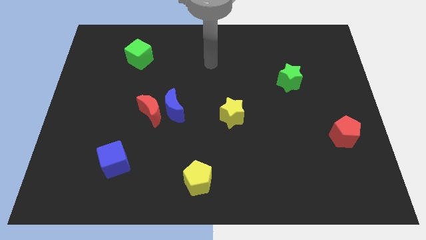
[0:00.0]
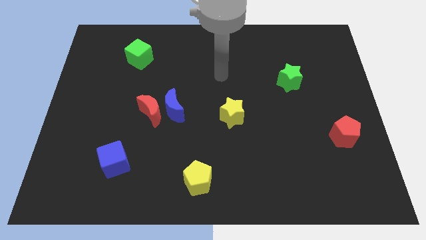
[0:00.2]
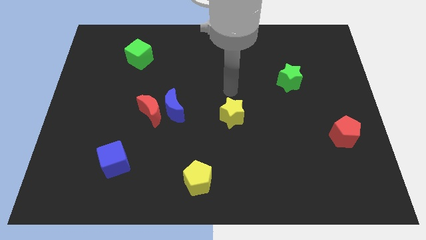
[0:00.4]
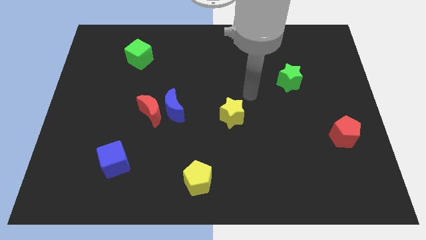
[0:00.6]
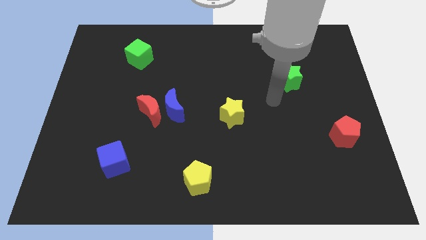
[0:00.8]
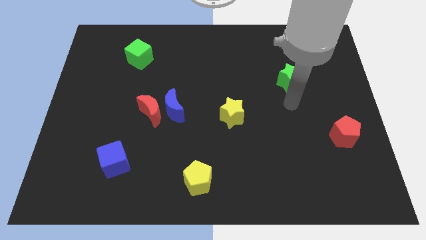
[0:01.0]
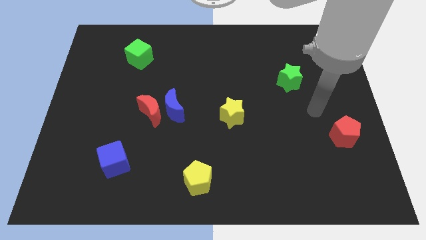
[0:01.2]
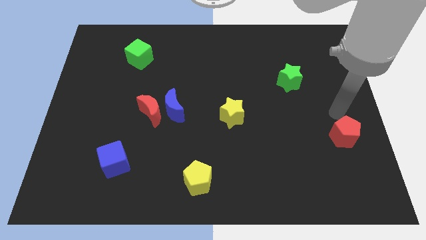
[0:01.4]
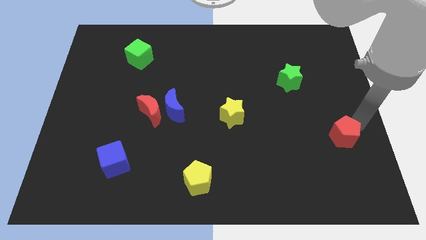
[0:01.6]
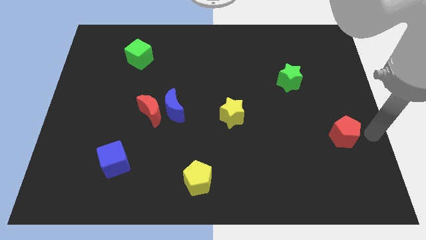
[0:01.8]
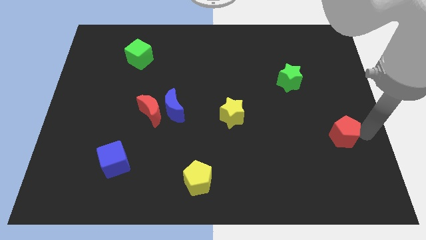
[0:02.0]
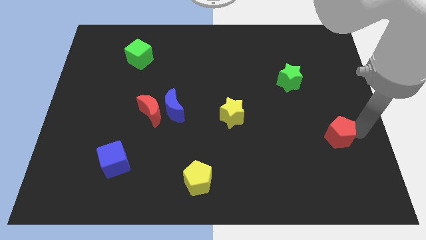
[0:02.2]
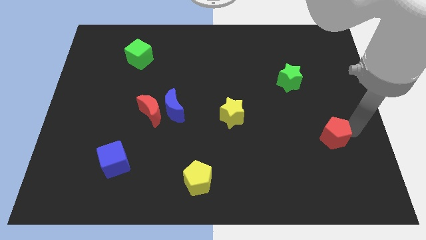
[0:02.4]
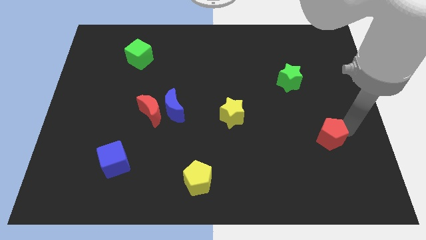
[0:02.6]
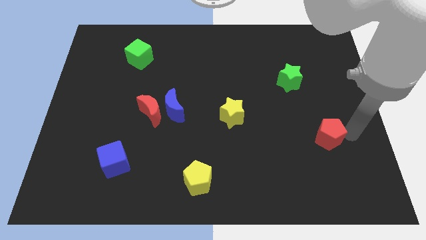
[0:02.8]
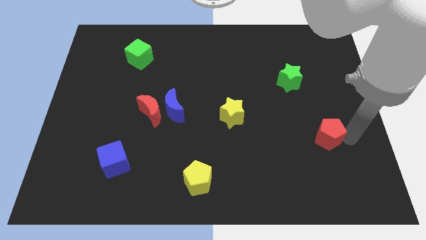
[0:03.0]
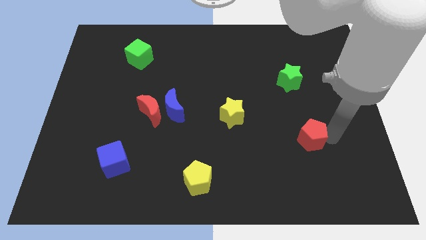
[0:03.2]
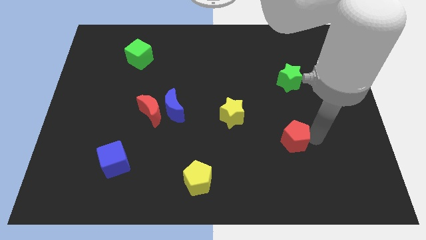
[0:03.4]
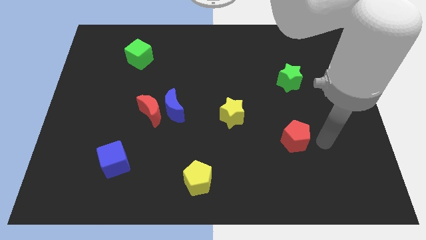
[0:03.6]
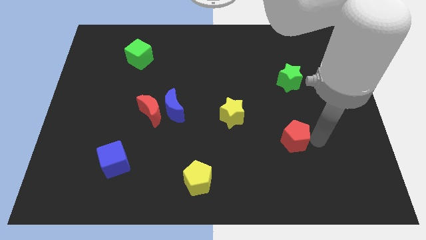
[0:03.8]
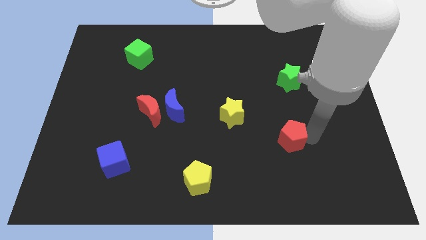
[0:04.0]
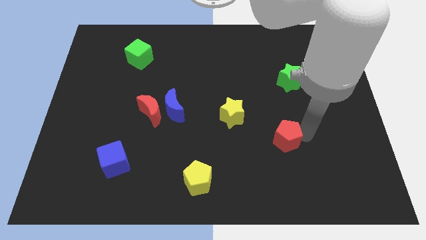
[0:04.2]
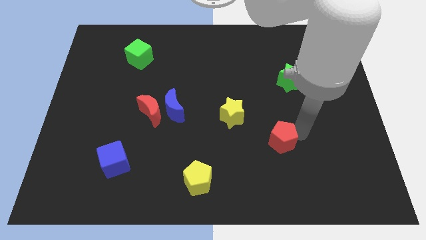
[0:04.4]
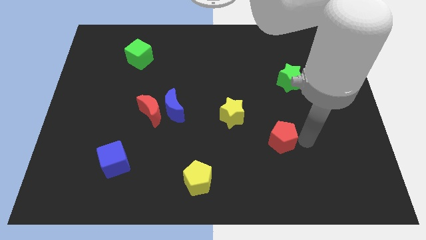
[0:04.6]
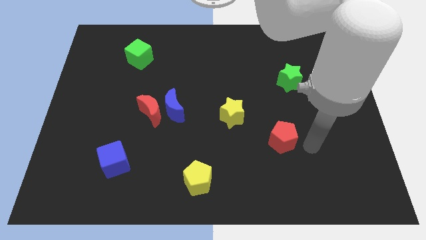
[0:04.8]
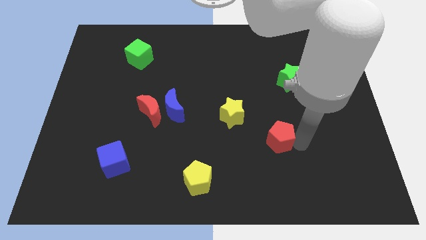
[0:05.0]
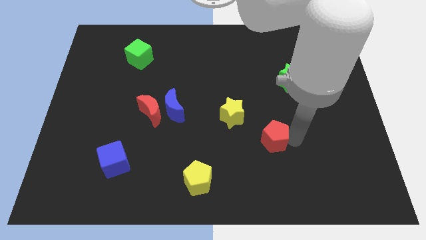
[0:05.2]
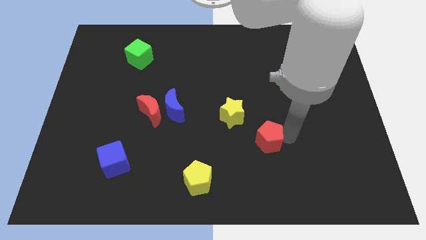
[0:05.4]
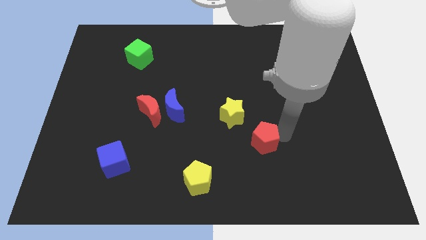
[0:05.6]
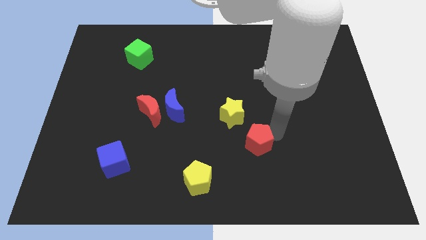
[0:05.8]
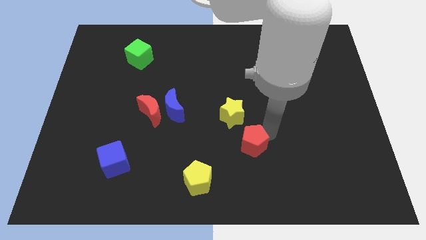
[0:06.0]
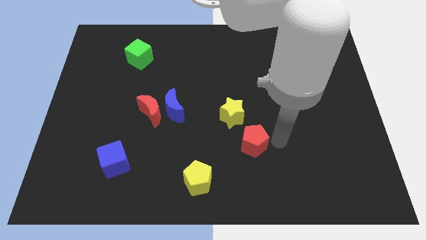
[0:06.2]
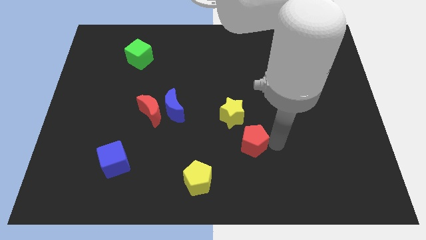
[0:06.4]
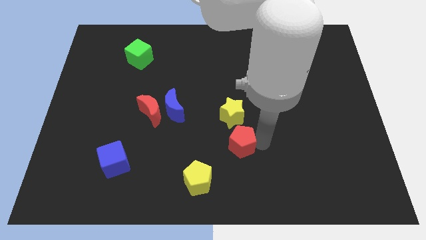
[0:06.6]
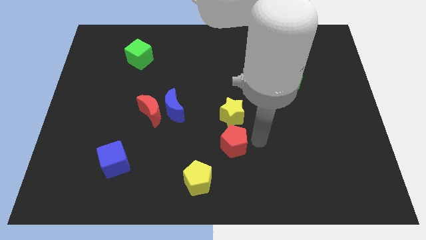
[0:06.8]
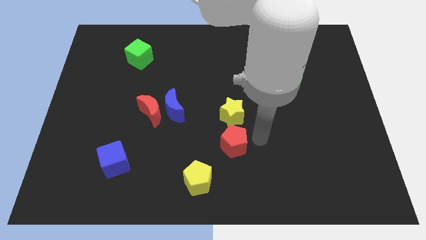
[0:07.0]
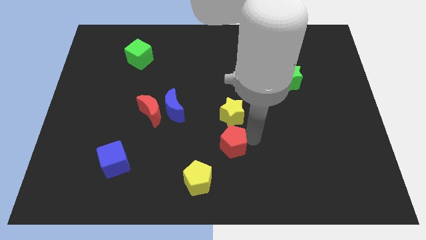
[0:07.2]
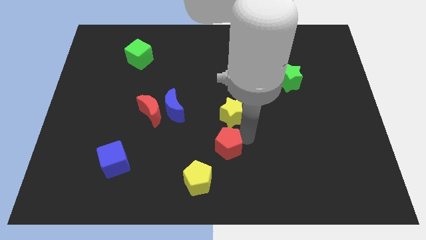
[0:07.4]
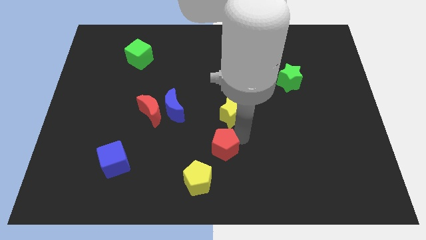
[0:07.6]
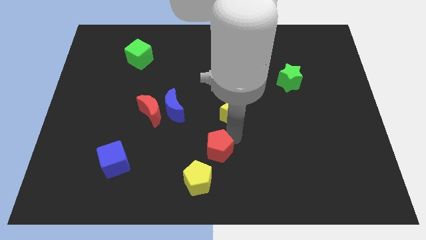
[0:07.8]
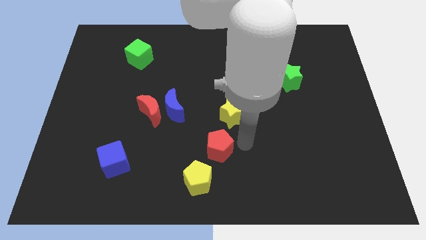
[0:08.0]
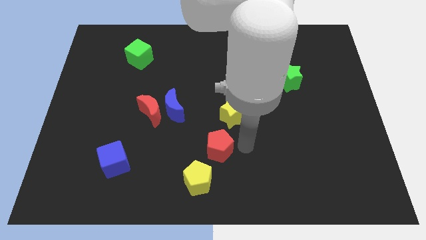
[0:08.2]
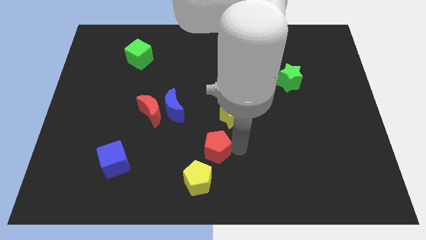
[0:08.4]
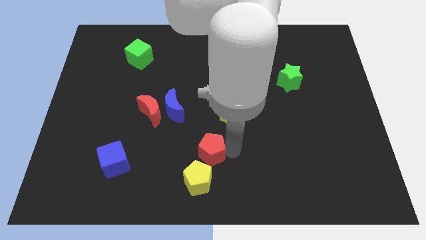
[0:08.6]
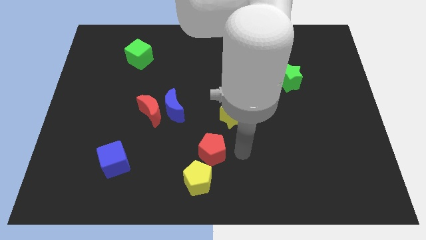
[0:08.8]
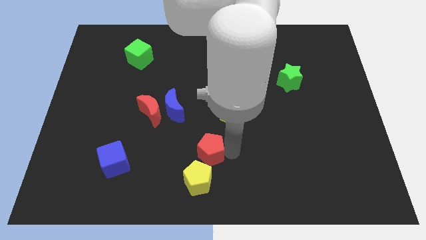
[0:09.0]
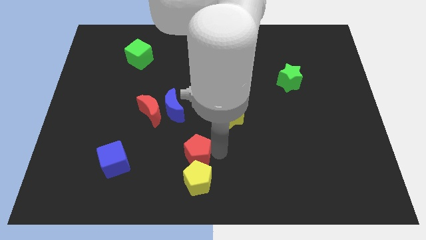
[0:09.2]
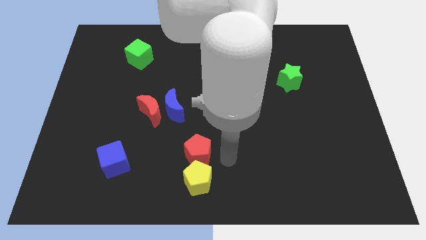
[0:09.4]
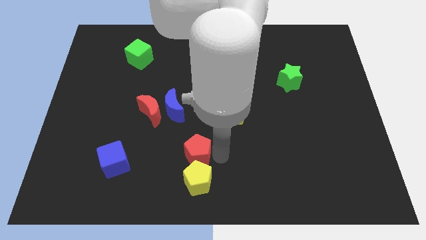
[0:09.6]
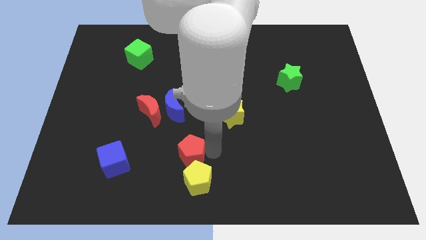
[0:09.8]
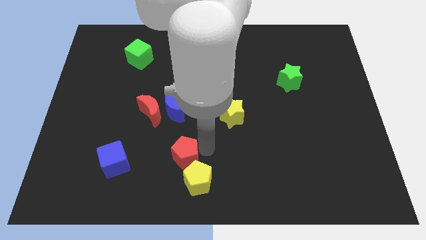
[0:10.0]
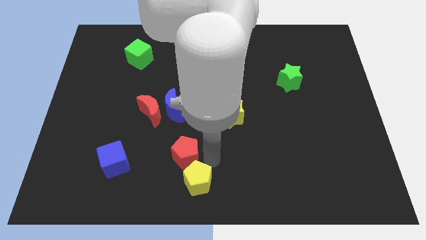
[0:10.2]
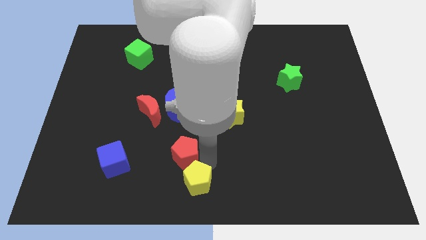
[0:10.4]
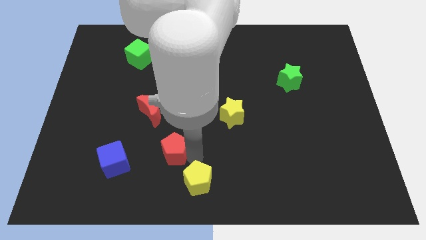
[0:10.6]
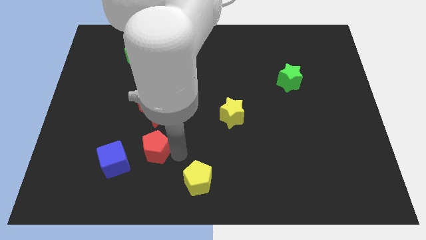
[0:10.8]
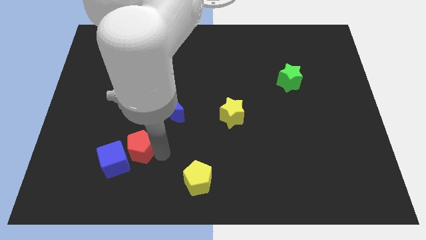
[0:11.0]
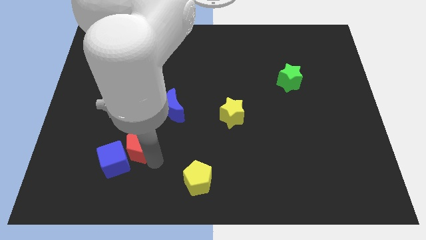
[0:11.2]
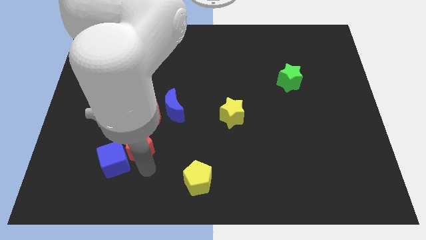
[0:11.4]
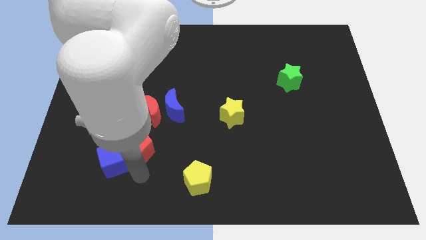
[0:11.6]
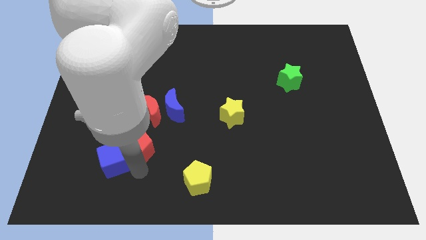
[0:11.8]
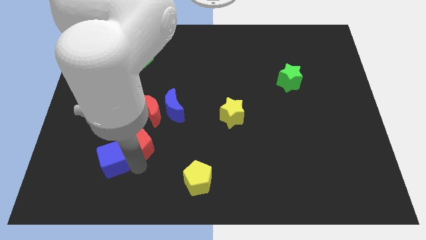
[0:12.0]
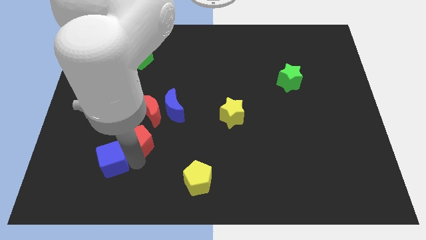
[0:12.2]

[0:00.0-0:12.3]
move the red pentagon to the bottom left of the red moon

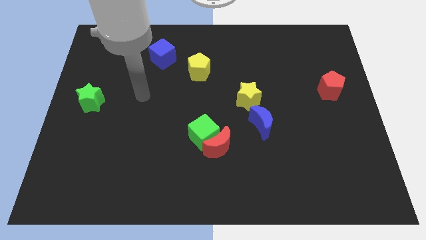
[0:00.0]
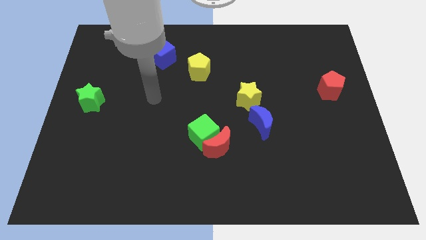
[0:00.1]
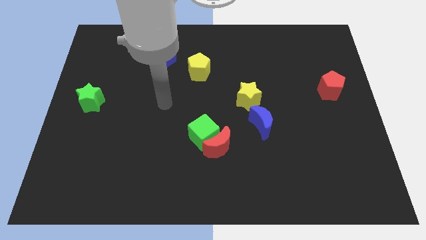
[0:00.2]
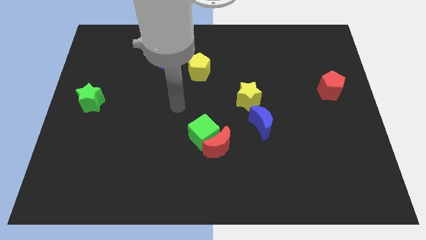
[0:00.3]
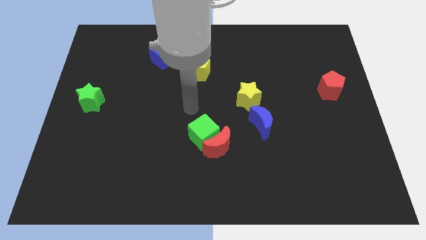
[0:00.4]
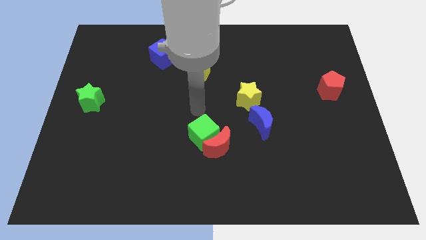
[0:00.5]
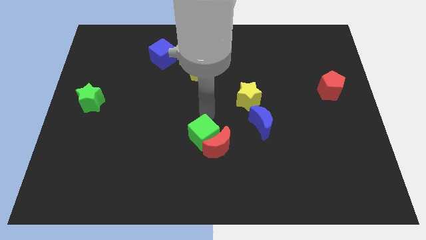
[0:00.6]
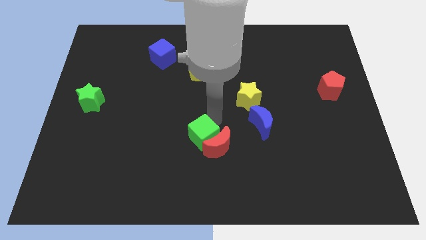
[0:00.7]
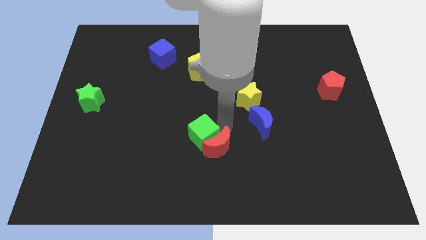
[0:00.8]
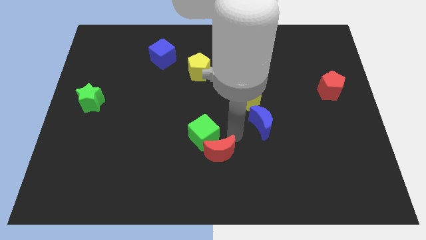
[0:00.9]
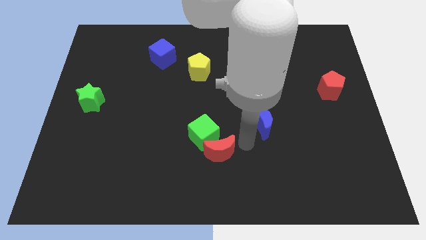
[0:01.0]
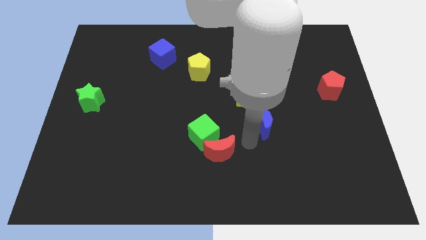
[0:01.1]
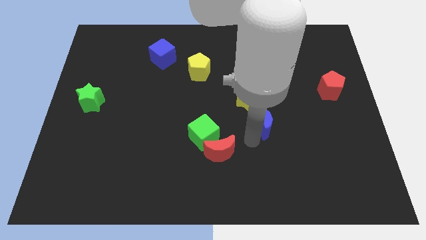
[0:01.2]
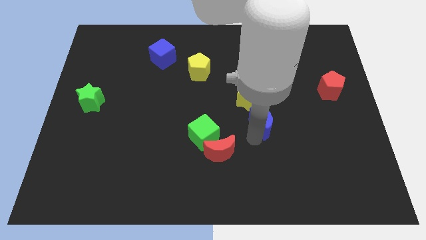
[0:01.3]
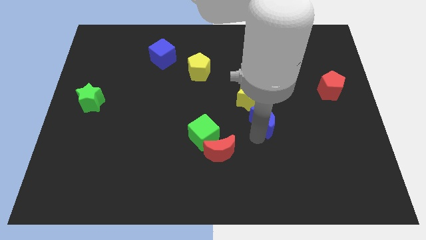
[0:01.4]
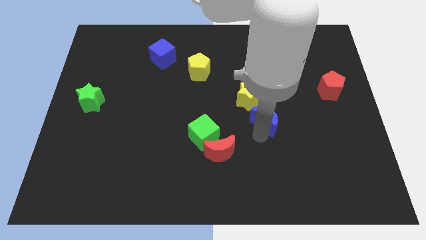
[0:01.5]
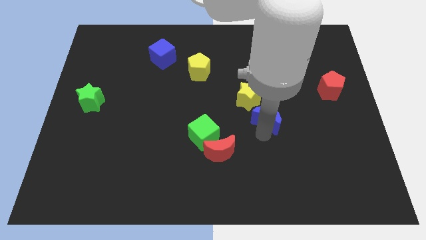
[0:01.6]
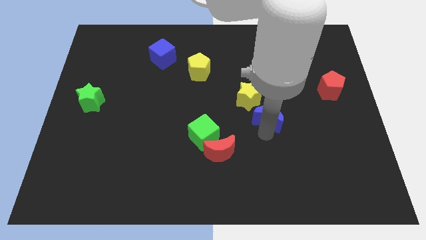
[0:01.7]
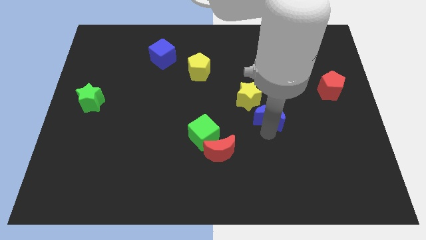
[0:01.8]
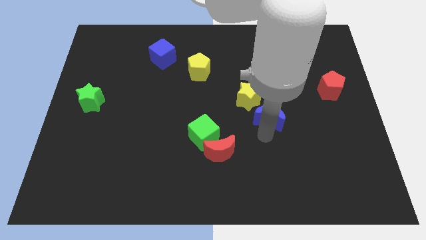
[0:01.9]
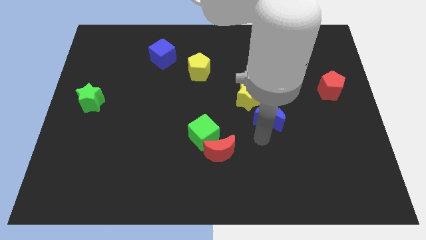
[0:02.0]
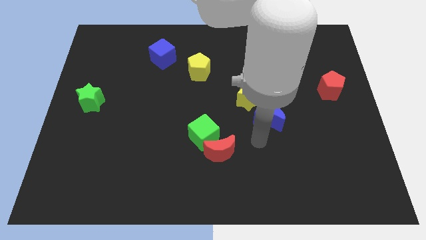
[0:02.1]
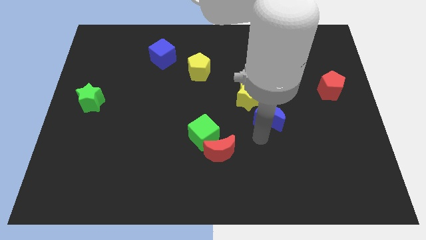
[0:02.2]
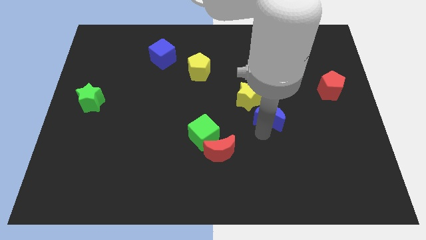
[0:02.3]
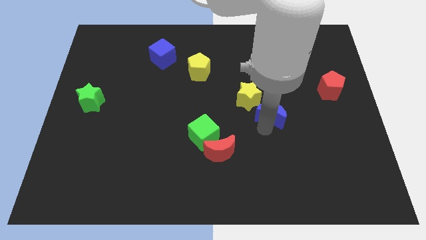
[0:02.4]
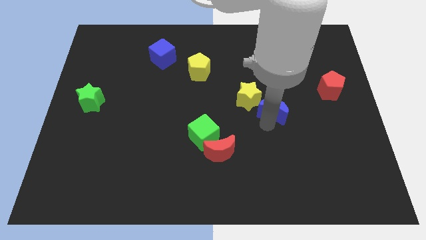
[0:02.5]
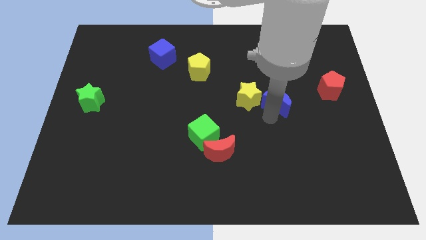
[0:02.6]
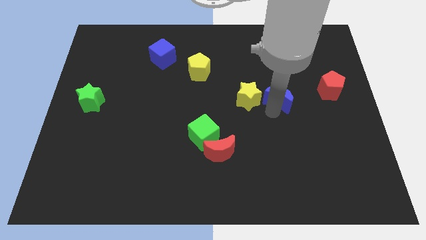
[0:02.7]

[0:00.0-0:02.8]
put the blue moon just left of the red pentagon
